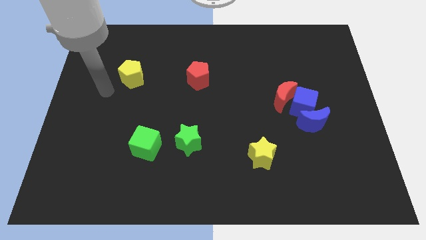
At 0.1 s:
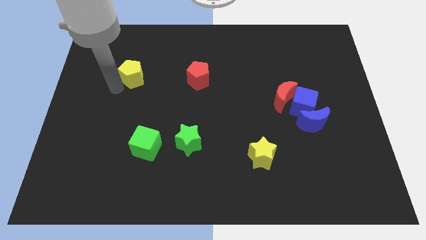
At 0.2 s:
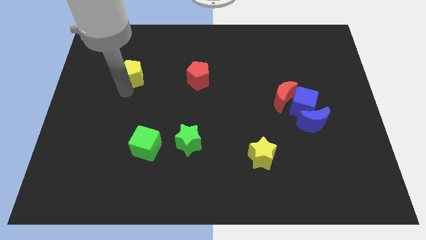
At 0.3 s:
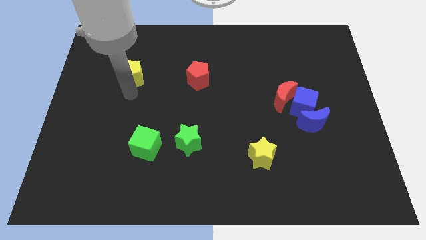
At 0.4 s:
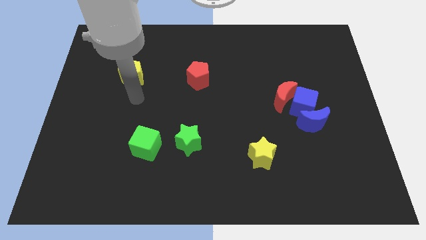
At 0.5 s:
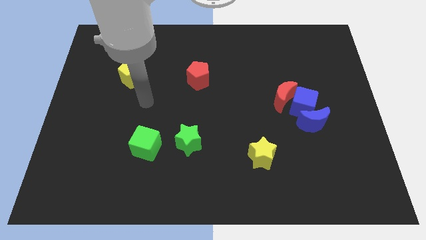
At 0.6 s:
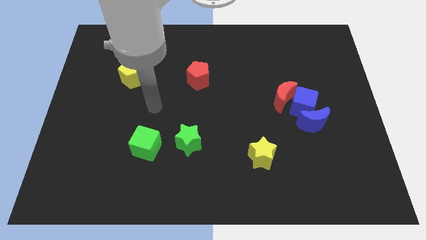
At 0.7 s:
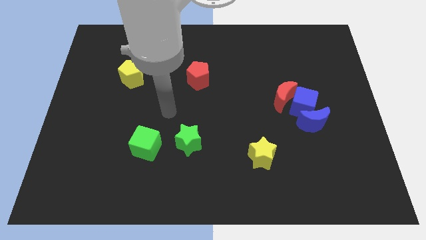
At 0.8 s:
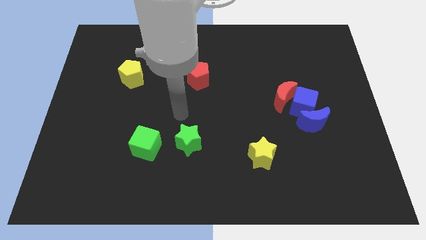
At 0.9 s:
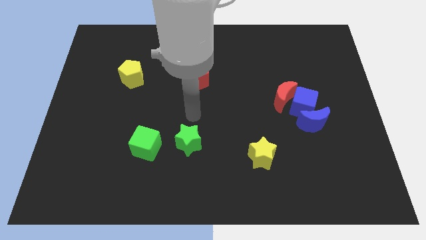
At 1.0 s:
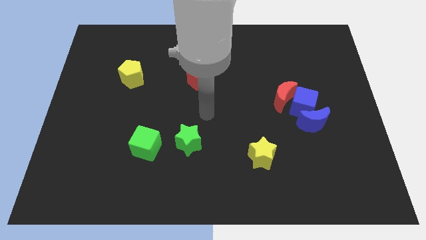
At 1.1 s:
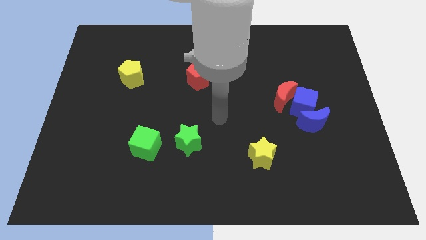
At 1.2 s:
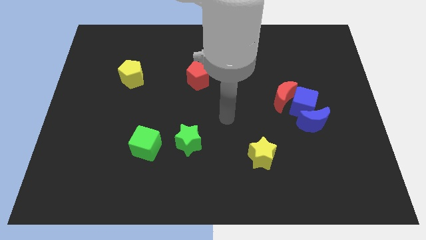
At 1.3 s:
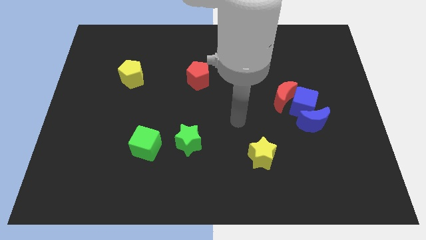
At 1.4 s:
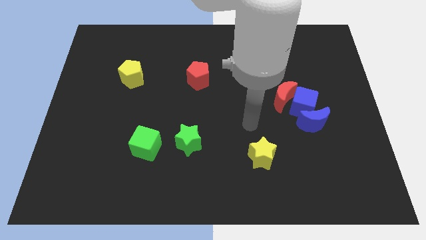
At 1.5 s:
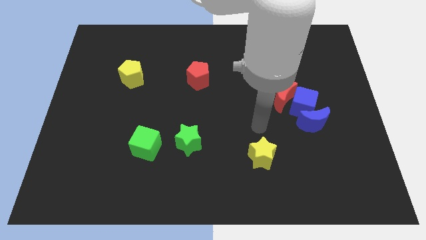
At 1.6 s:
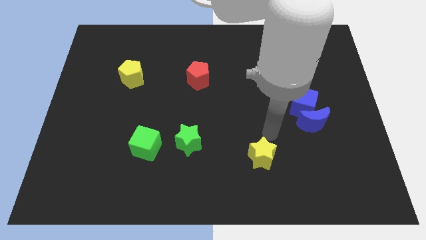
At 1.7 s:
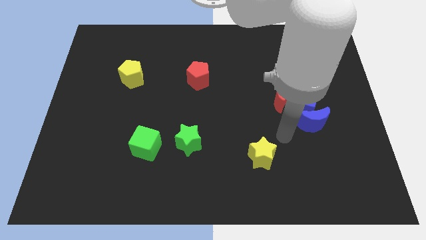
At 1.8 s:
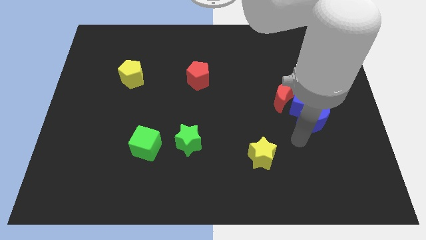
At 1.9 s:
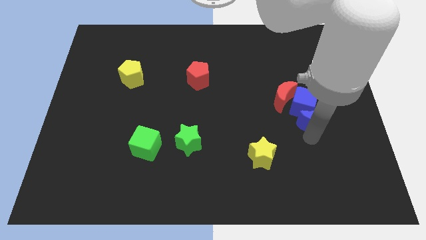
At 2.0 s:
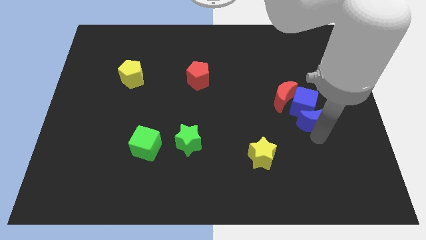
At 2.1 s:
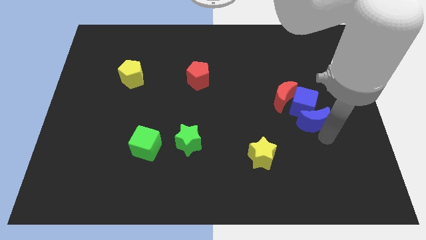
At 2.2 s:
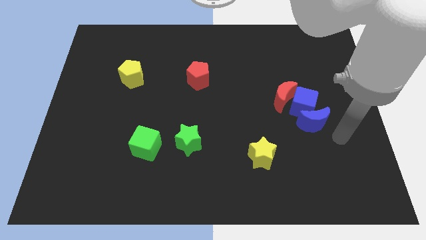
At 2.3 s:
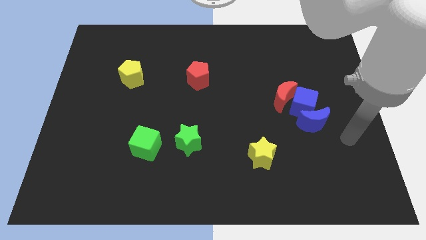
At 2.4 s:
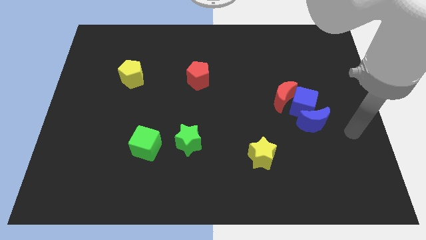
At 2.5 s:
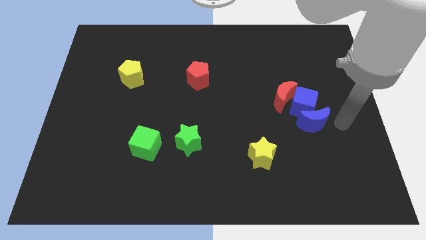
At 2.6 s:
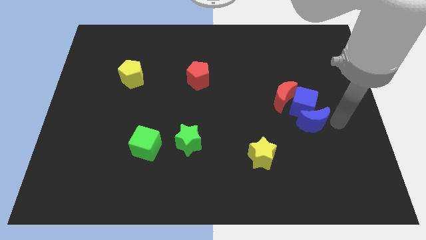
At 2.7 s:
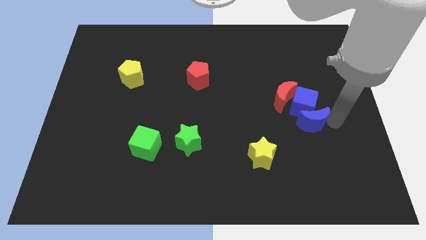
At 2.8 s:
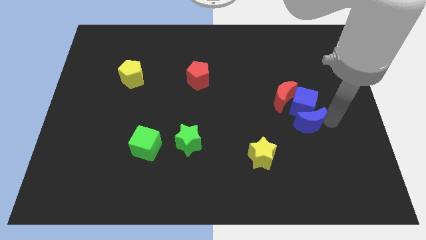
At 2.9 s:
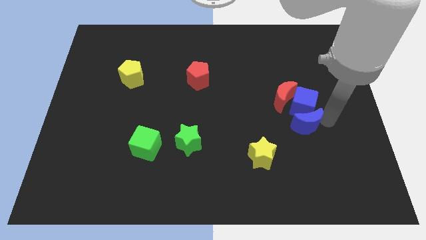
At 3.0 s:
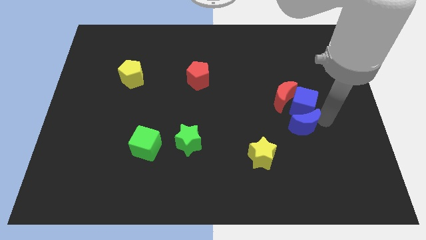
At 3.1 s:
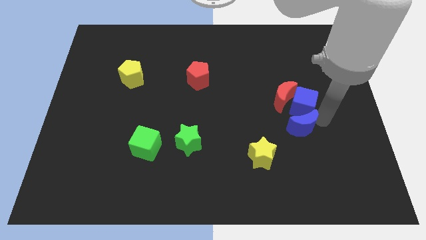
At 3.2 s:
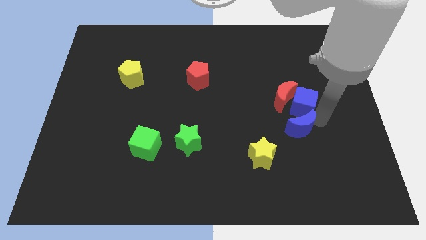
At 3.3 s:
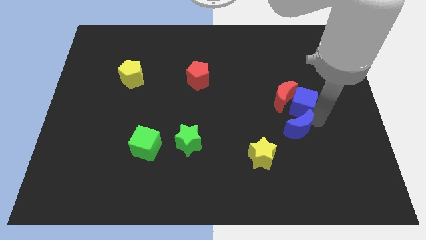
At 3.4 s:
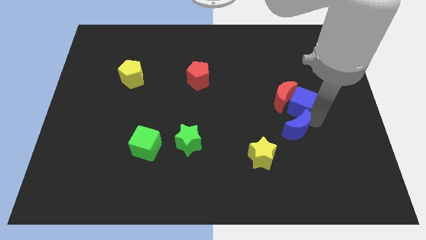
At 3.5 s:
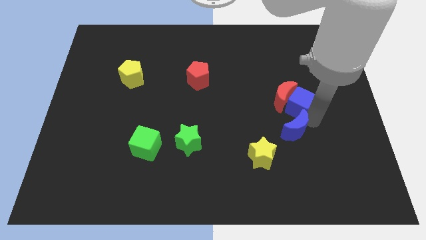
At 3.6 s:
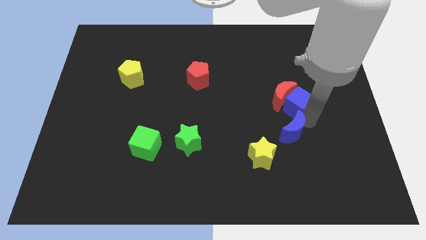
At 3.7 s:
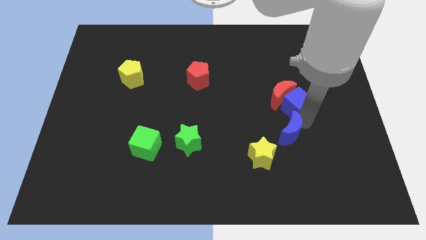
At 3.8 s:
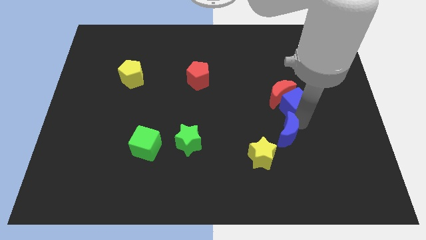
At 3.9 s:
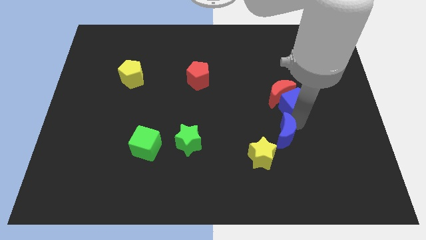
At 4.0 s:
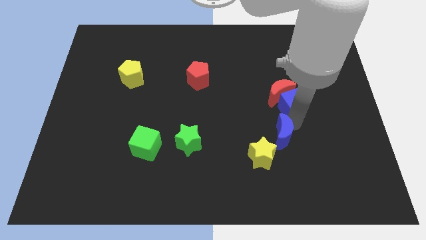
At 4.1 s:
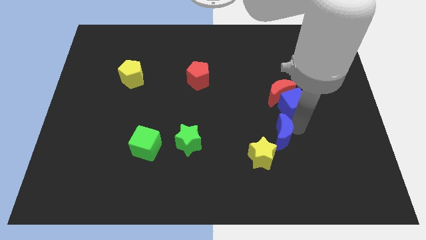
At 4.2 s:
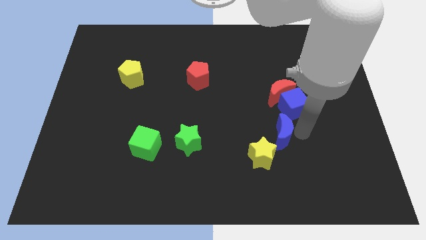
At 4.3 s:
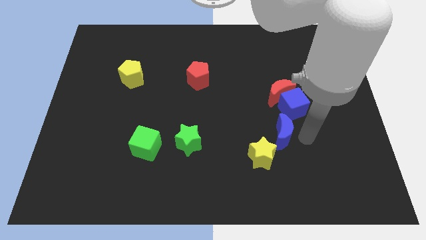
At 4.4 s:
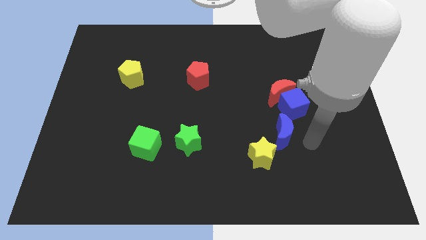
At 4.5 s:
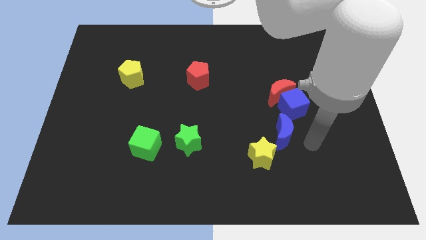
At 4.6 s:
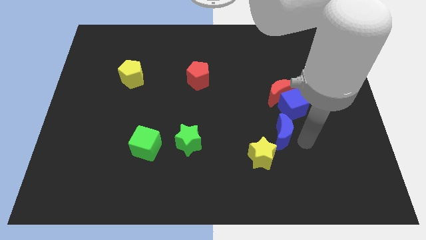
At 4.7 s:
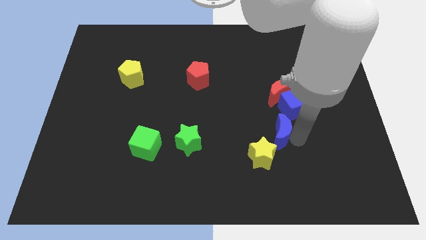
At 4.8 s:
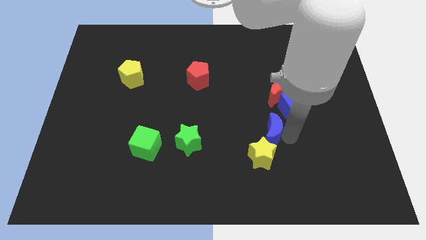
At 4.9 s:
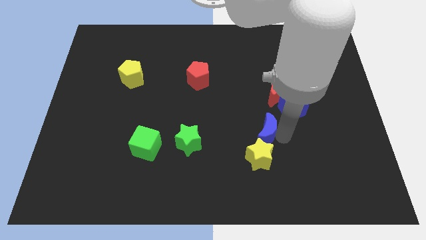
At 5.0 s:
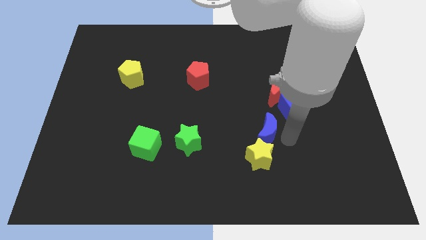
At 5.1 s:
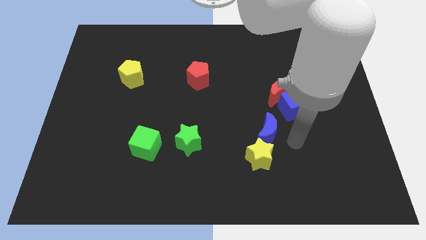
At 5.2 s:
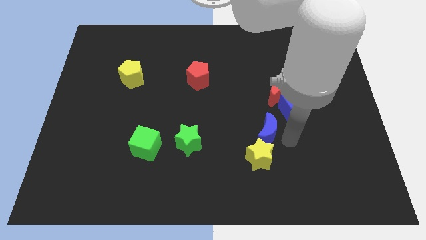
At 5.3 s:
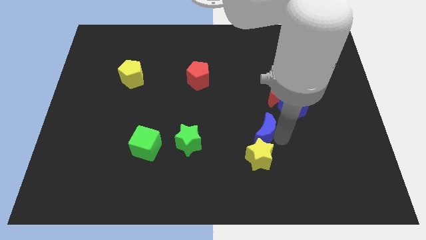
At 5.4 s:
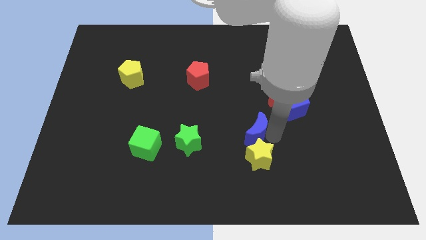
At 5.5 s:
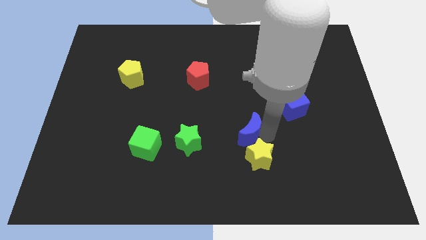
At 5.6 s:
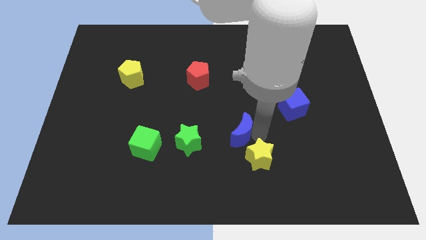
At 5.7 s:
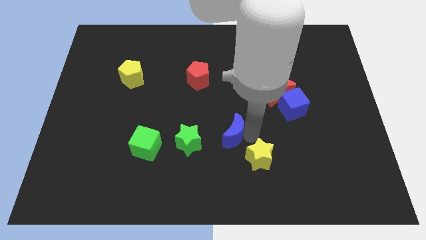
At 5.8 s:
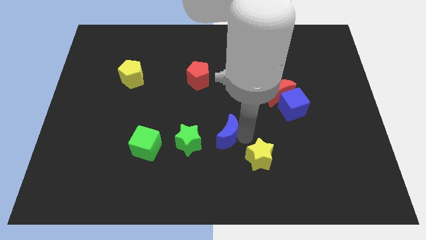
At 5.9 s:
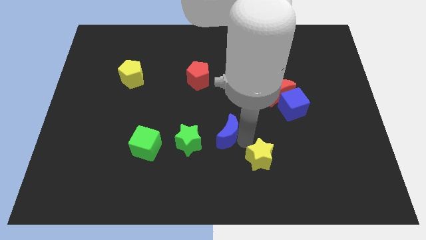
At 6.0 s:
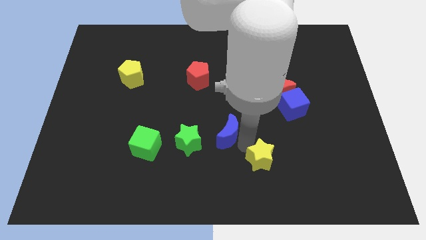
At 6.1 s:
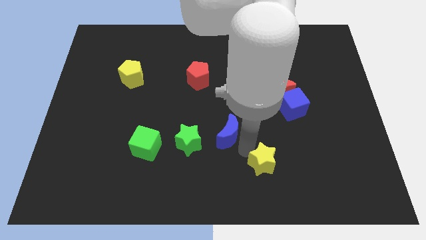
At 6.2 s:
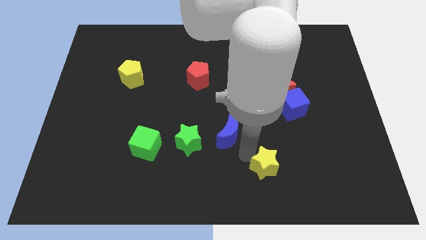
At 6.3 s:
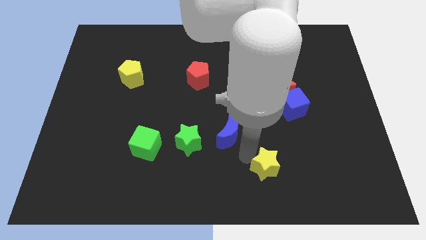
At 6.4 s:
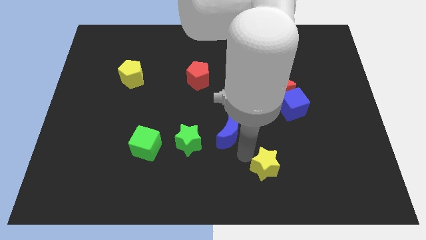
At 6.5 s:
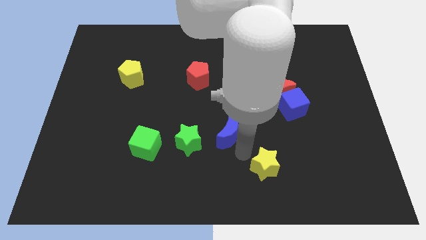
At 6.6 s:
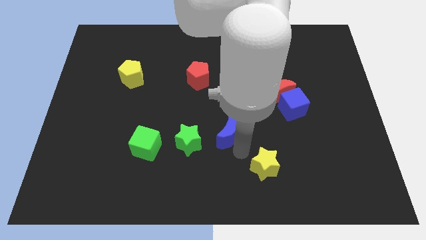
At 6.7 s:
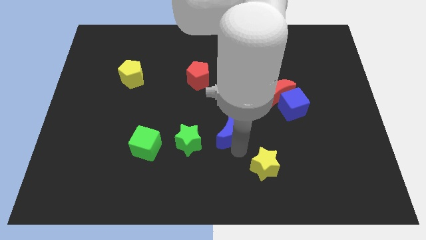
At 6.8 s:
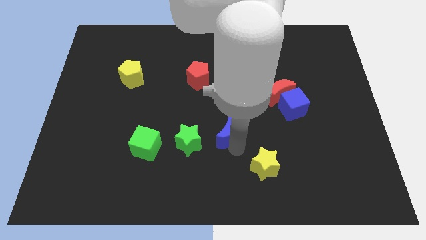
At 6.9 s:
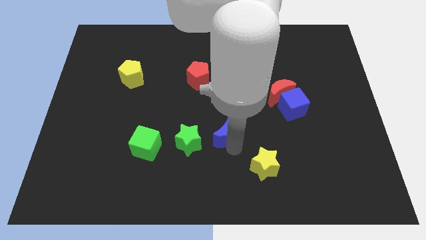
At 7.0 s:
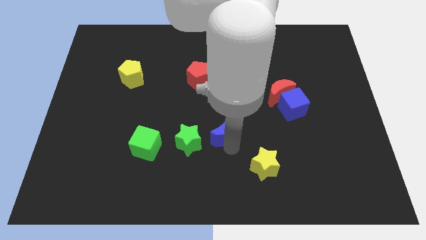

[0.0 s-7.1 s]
push the blue moon to the left

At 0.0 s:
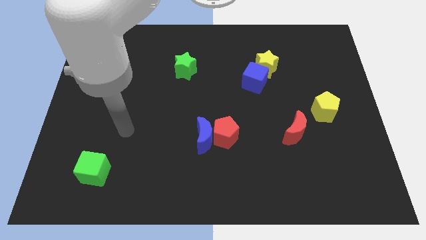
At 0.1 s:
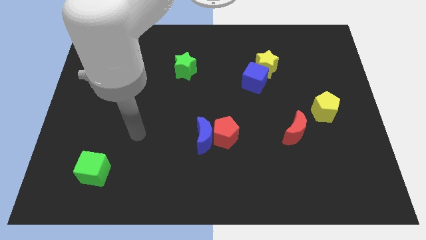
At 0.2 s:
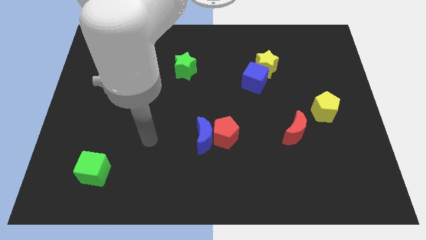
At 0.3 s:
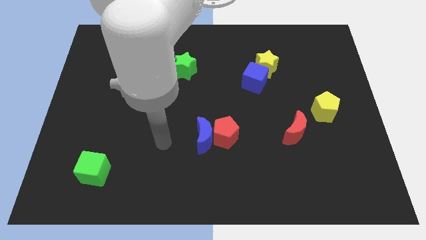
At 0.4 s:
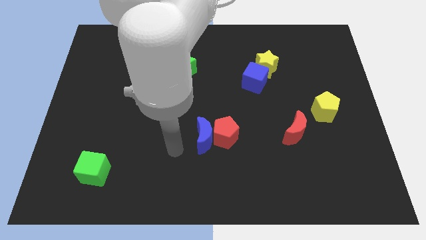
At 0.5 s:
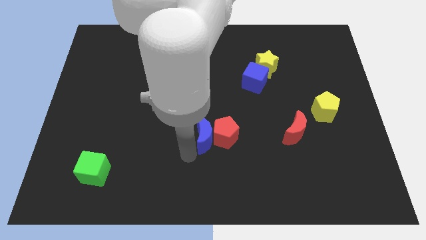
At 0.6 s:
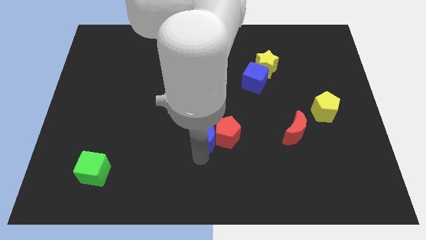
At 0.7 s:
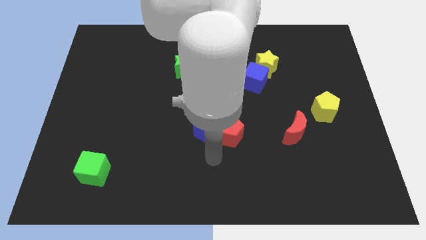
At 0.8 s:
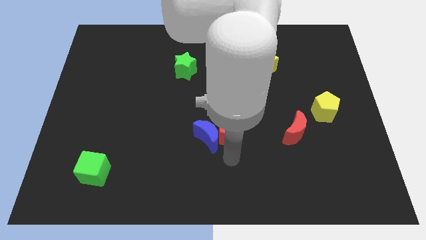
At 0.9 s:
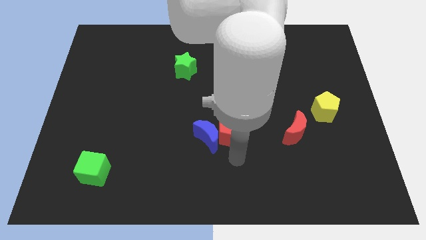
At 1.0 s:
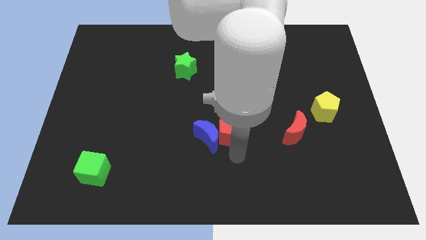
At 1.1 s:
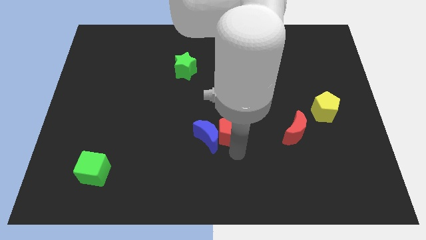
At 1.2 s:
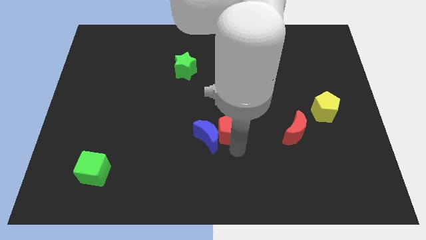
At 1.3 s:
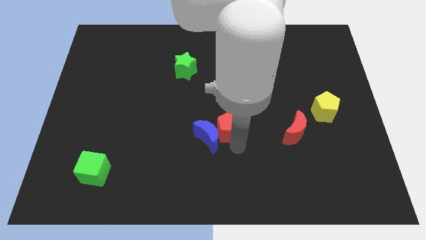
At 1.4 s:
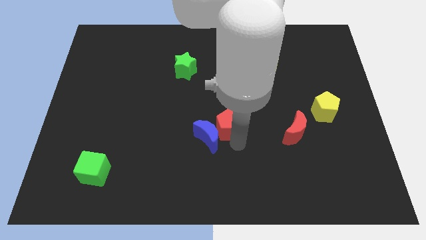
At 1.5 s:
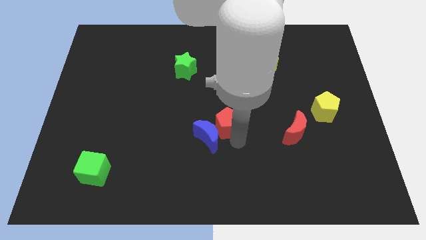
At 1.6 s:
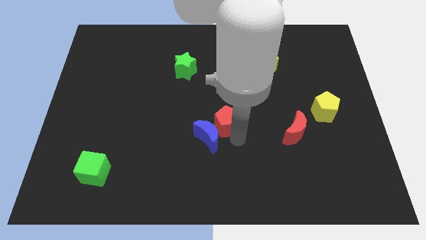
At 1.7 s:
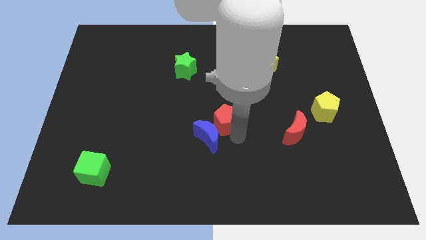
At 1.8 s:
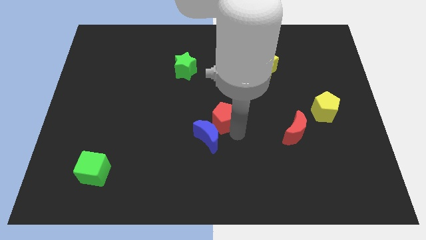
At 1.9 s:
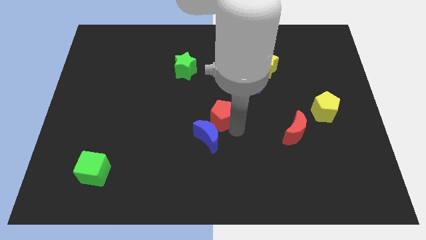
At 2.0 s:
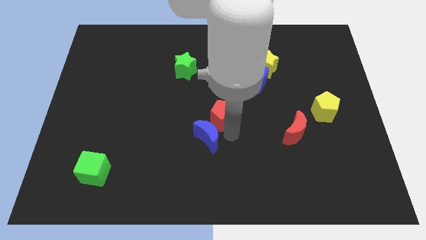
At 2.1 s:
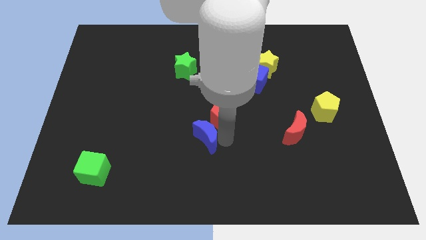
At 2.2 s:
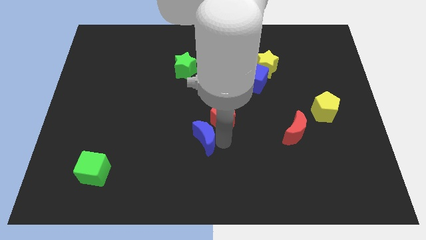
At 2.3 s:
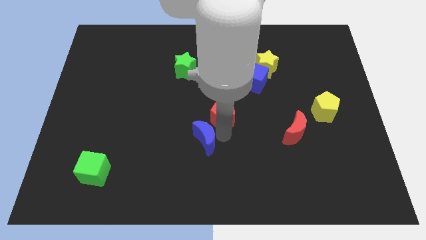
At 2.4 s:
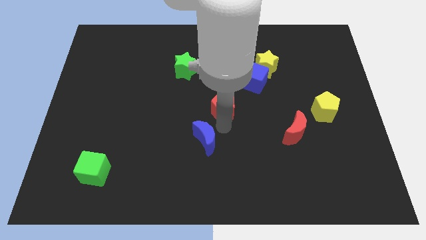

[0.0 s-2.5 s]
slightly move the red pentagon upwards
